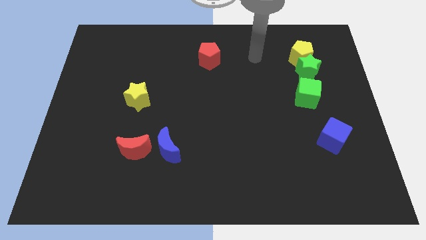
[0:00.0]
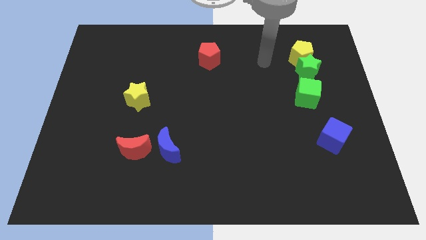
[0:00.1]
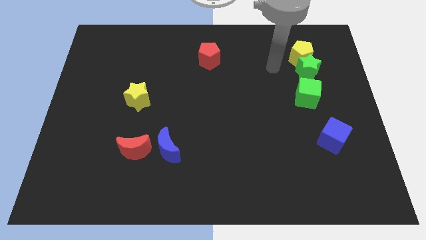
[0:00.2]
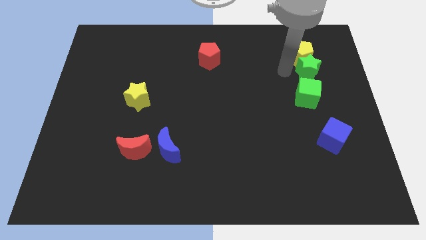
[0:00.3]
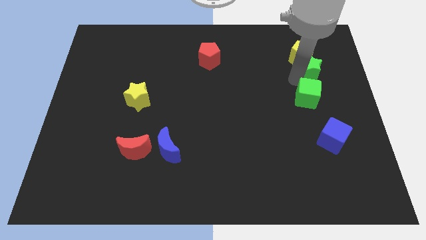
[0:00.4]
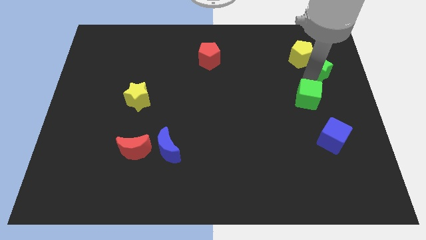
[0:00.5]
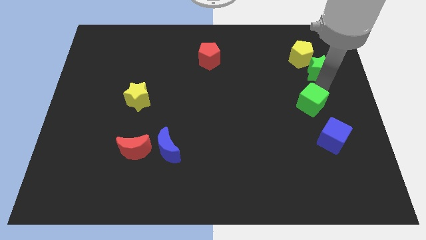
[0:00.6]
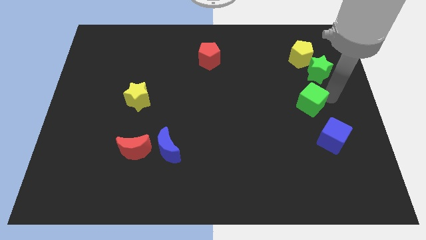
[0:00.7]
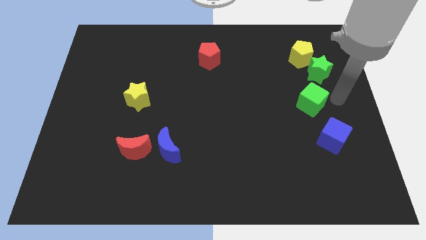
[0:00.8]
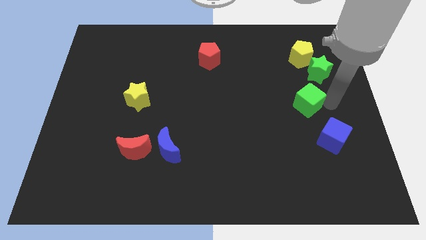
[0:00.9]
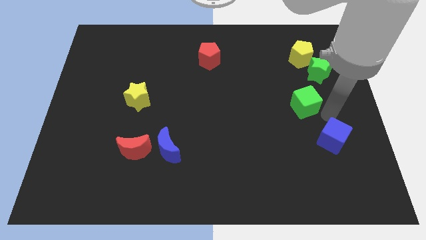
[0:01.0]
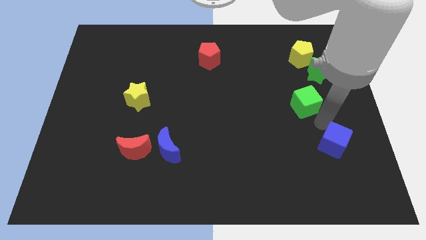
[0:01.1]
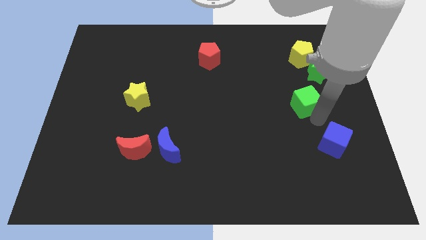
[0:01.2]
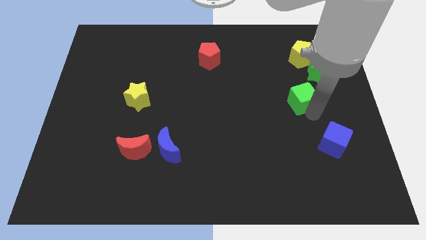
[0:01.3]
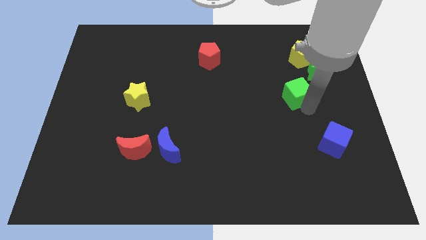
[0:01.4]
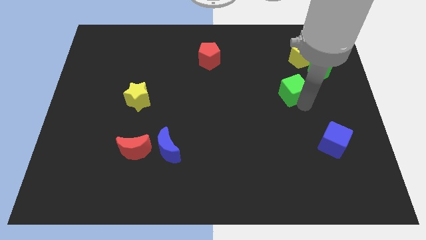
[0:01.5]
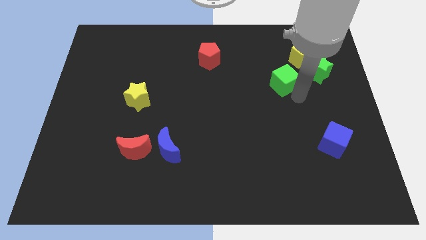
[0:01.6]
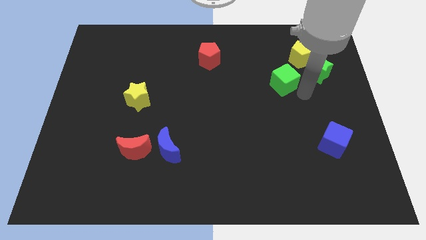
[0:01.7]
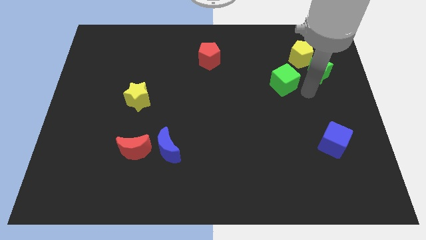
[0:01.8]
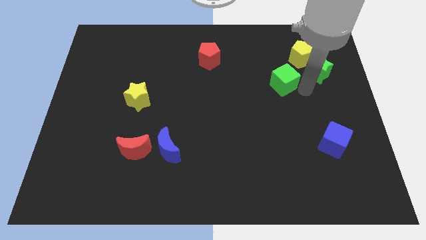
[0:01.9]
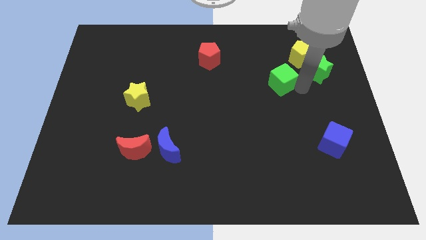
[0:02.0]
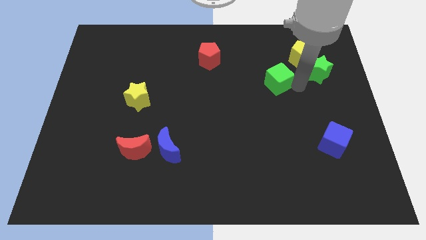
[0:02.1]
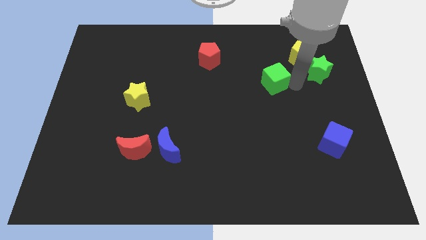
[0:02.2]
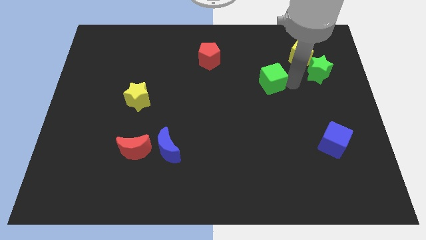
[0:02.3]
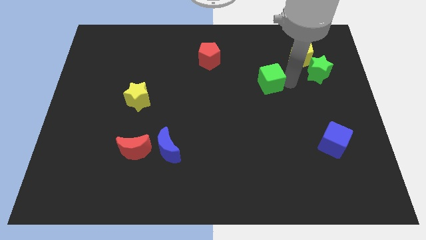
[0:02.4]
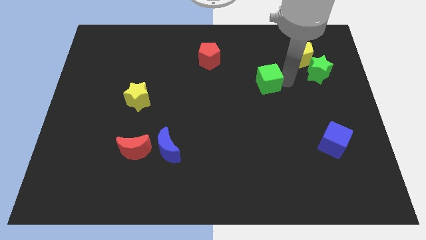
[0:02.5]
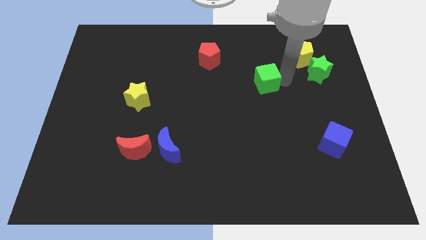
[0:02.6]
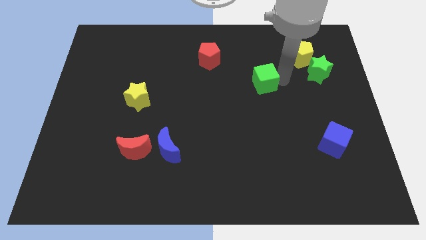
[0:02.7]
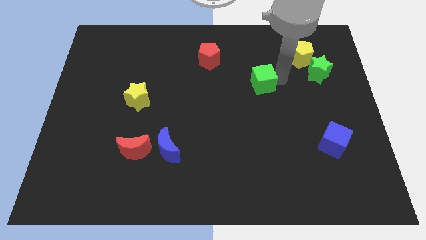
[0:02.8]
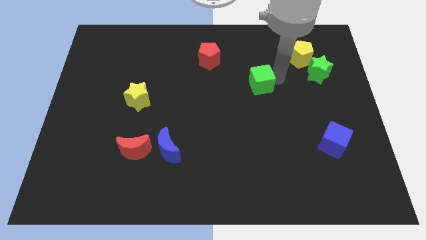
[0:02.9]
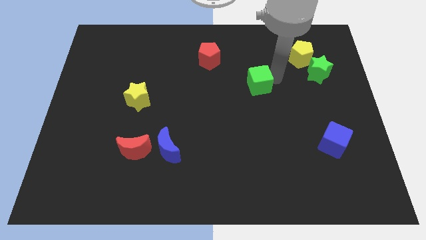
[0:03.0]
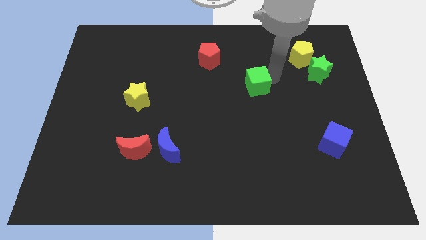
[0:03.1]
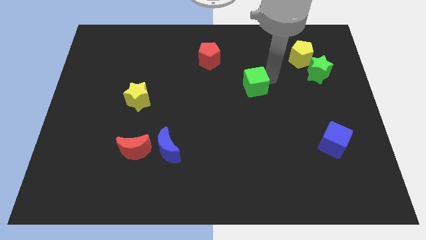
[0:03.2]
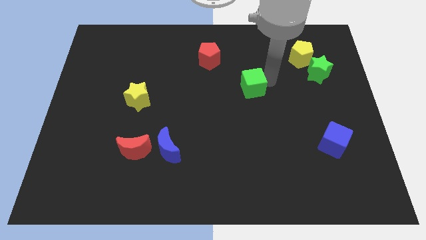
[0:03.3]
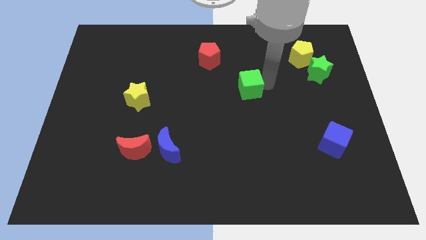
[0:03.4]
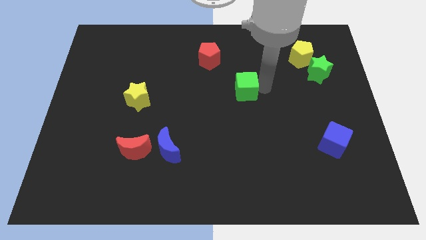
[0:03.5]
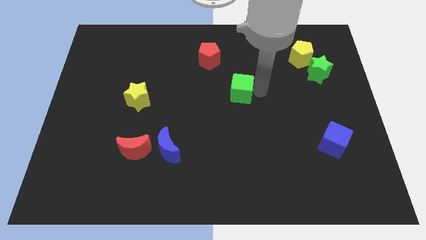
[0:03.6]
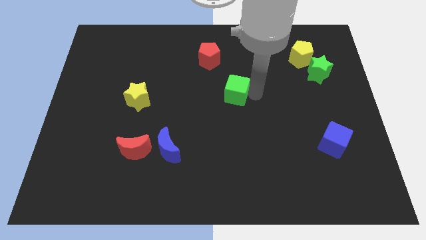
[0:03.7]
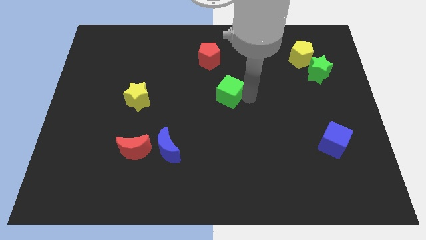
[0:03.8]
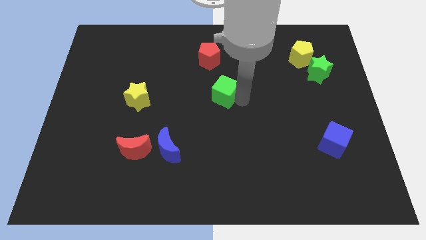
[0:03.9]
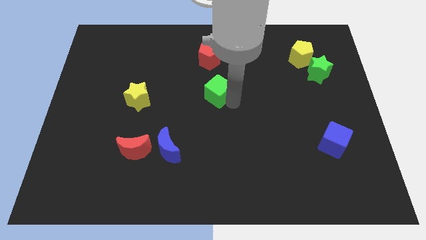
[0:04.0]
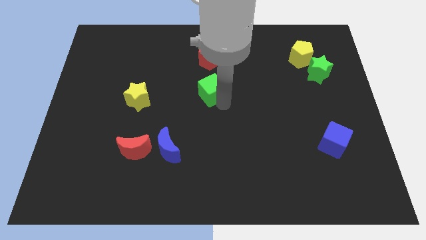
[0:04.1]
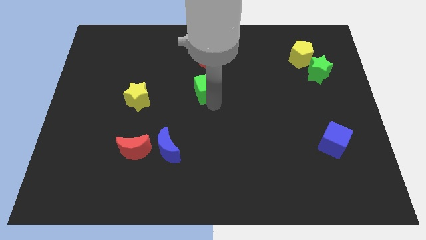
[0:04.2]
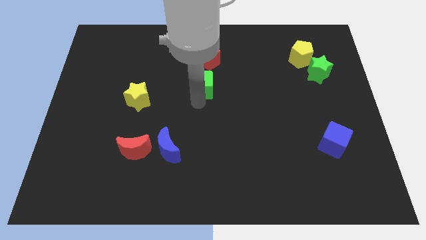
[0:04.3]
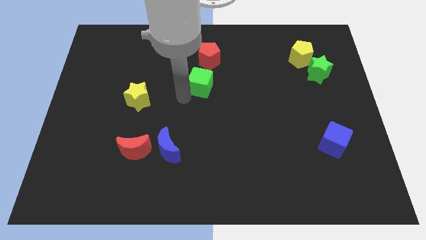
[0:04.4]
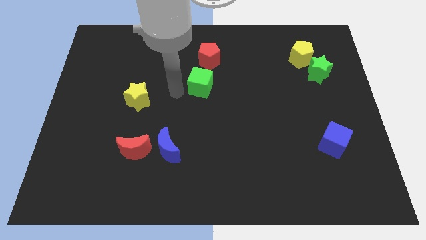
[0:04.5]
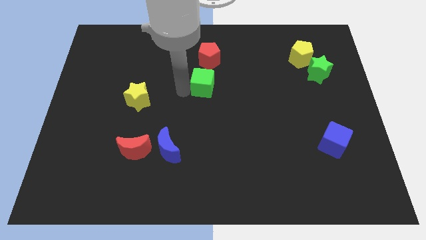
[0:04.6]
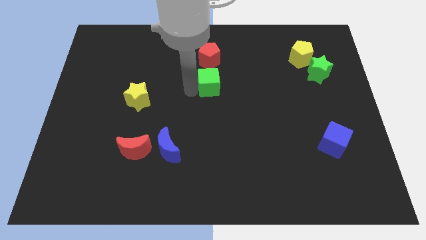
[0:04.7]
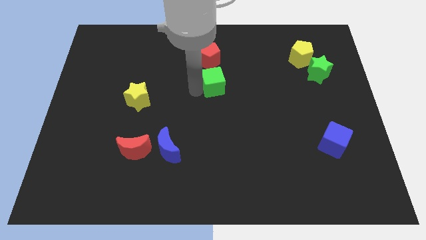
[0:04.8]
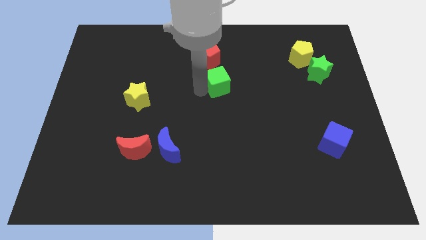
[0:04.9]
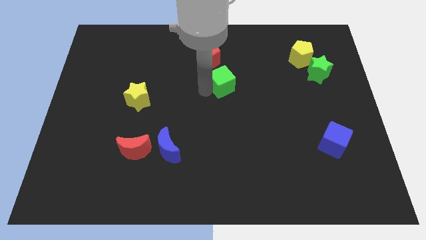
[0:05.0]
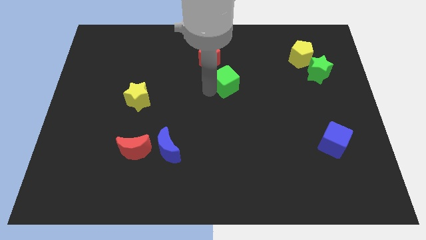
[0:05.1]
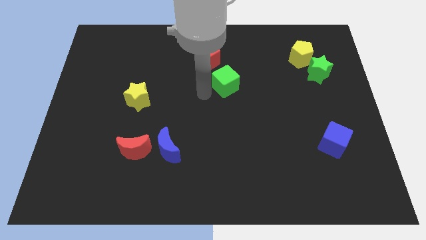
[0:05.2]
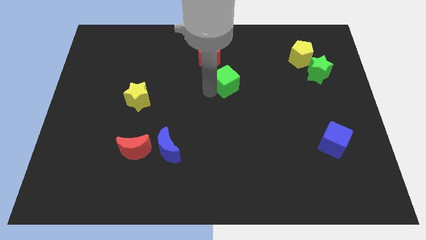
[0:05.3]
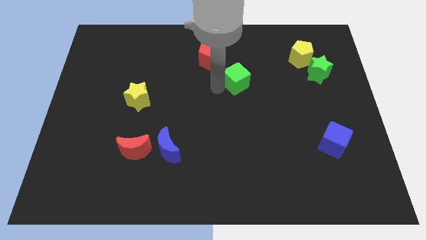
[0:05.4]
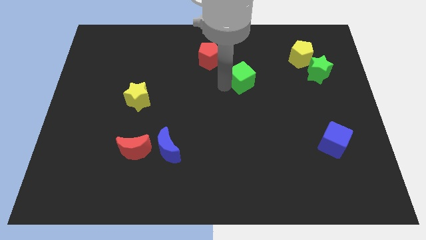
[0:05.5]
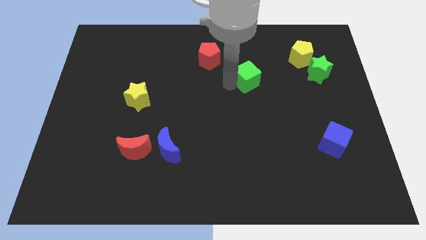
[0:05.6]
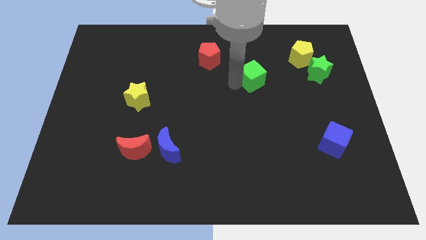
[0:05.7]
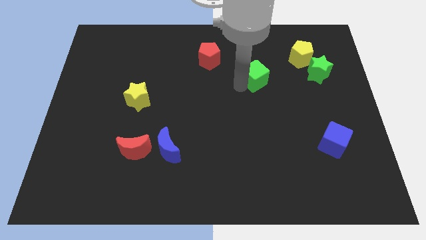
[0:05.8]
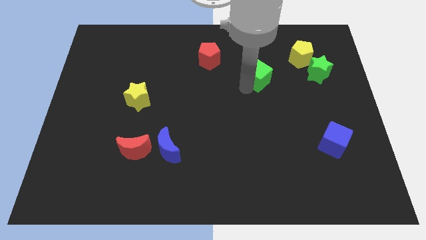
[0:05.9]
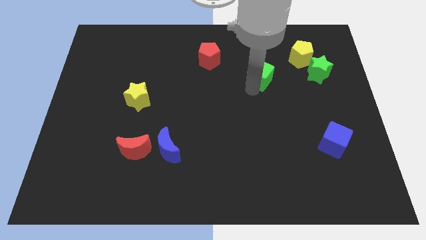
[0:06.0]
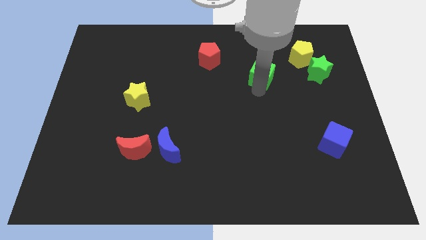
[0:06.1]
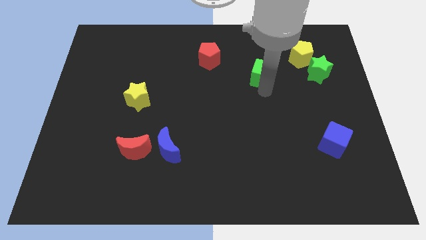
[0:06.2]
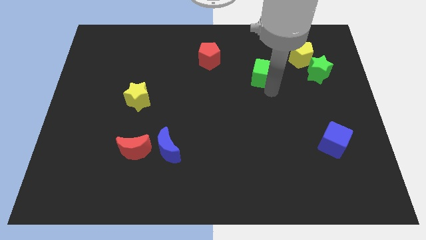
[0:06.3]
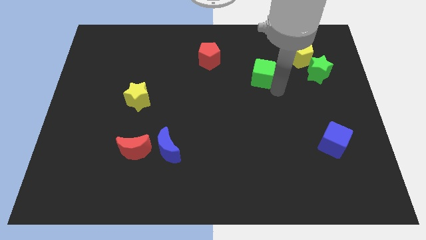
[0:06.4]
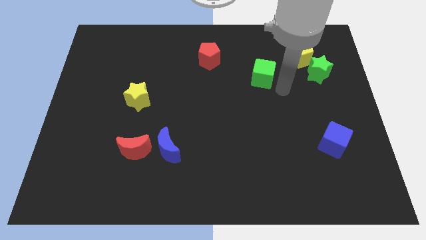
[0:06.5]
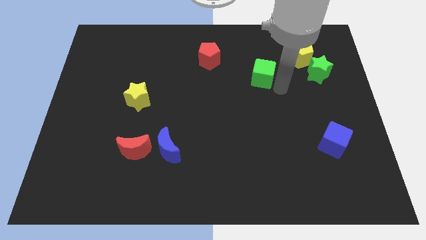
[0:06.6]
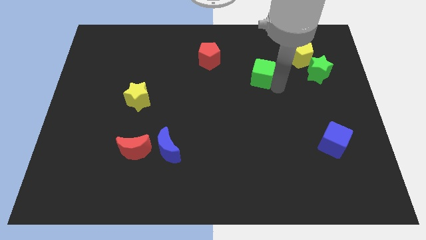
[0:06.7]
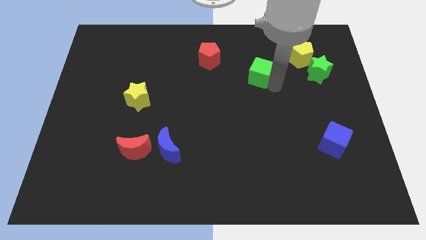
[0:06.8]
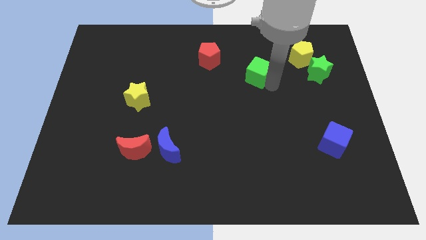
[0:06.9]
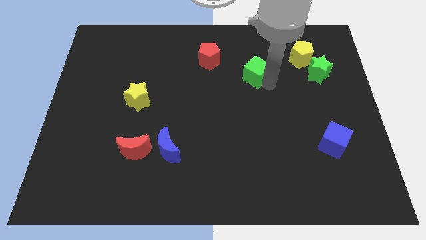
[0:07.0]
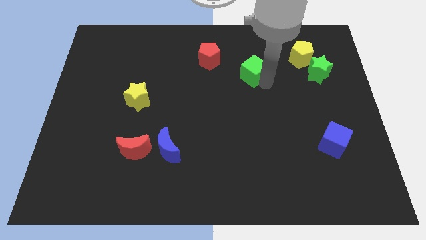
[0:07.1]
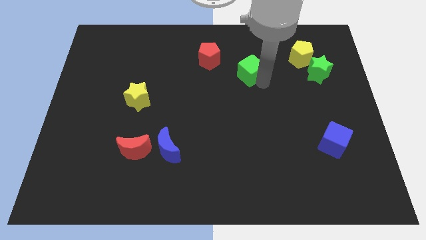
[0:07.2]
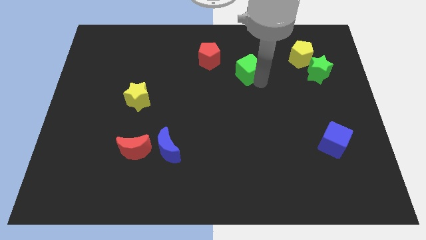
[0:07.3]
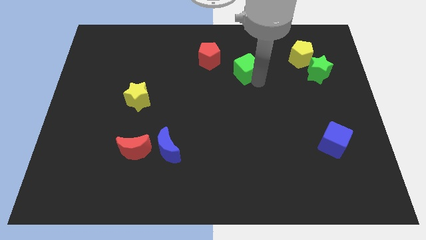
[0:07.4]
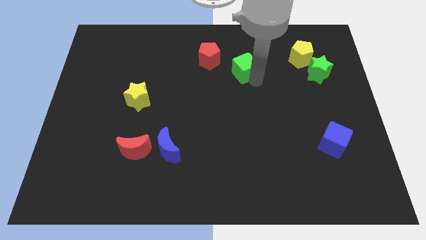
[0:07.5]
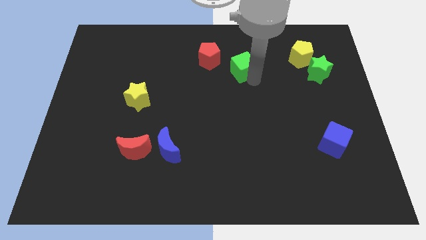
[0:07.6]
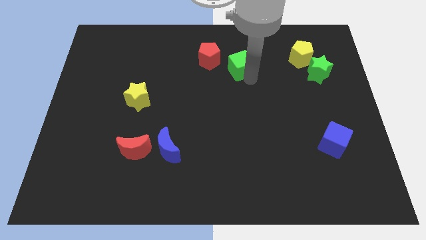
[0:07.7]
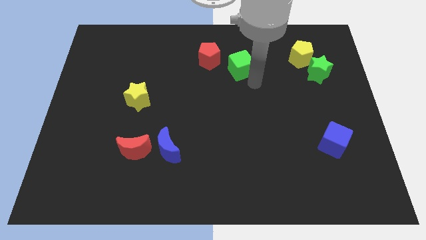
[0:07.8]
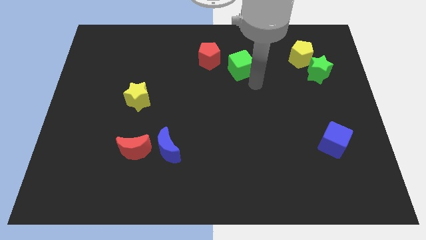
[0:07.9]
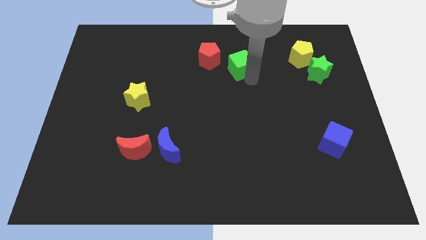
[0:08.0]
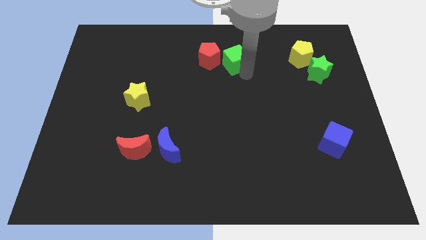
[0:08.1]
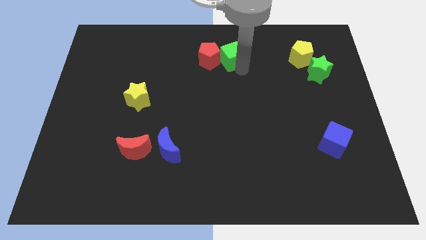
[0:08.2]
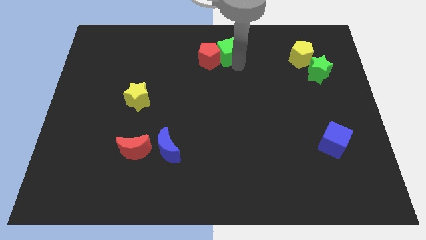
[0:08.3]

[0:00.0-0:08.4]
put the green cube to the top side
